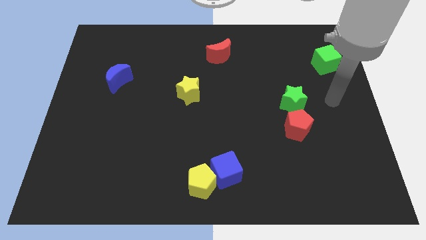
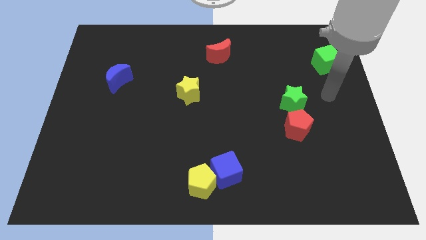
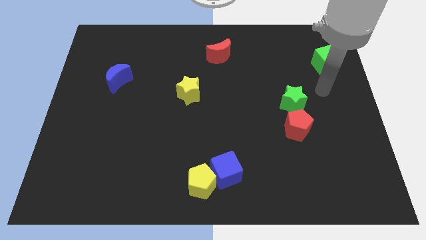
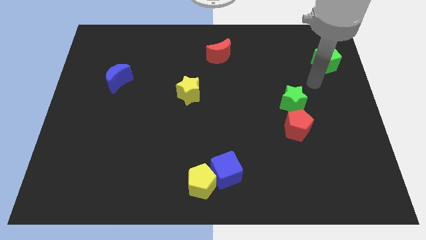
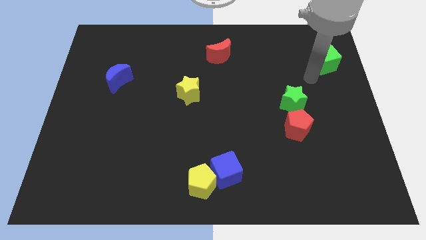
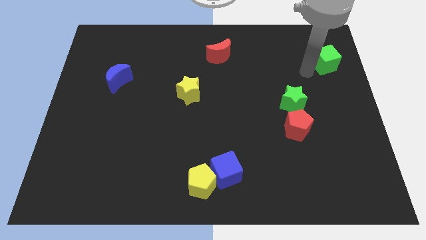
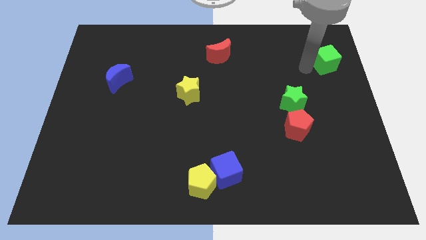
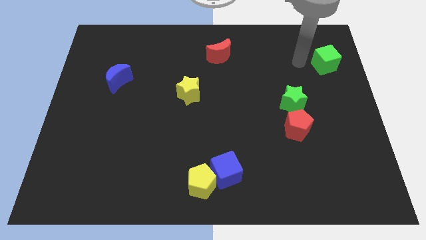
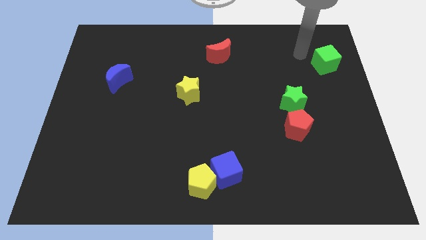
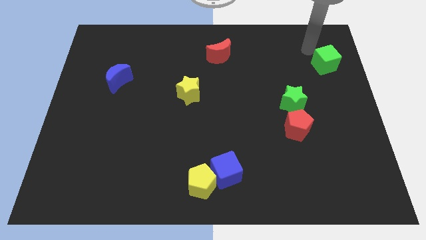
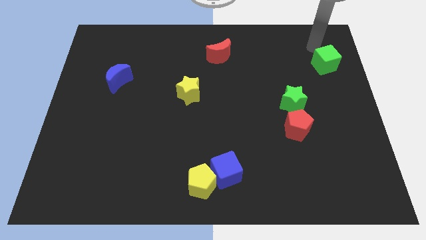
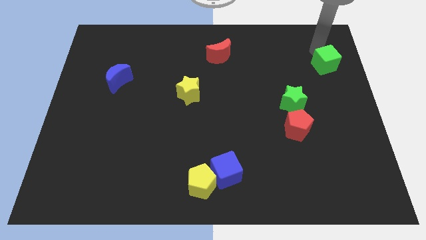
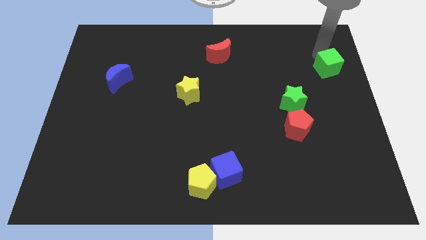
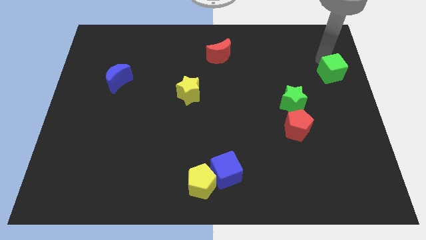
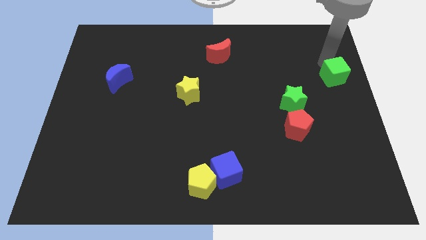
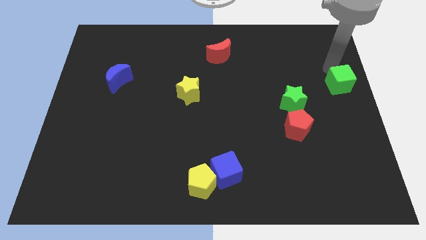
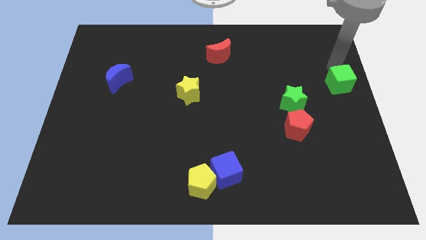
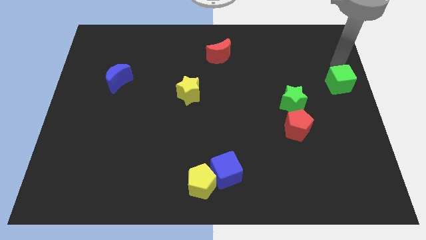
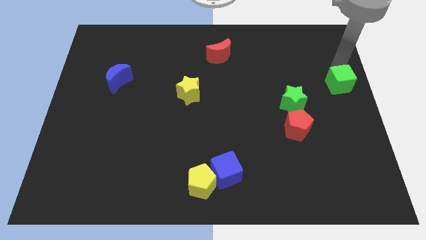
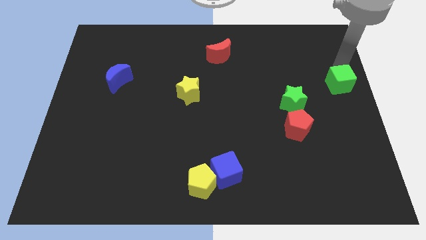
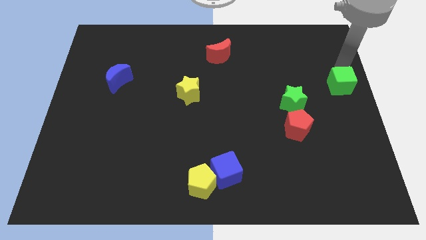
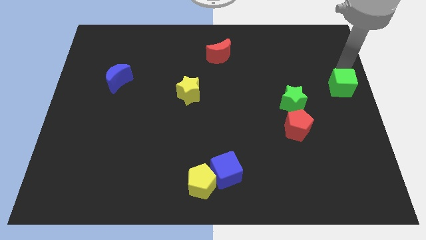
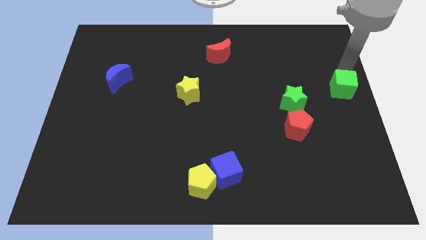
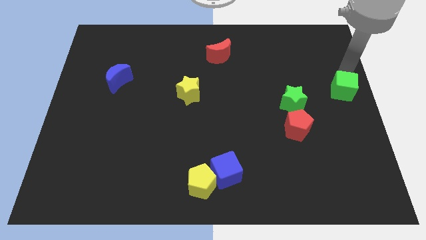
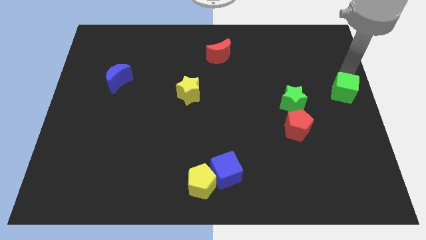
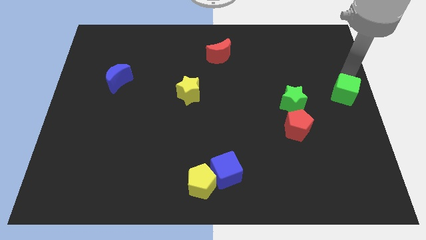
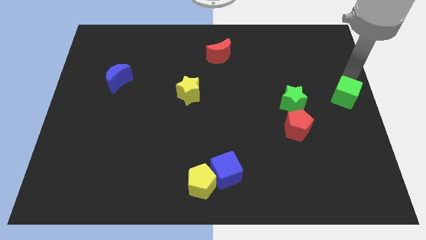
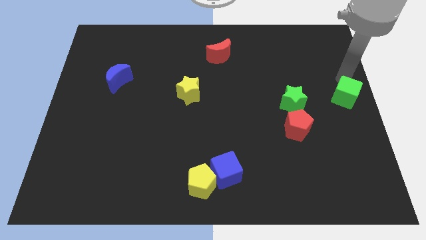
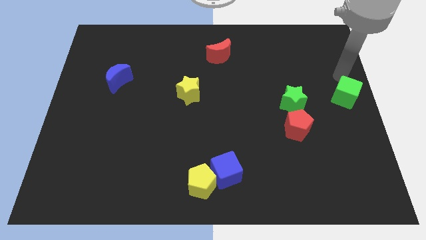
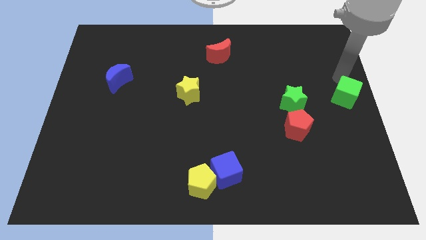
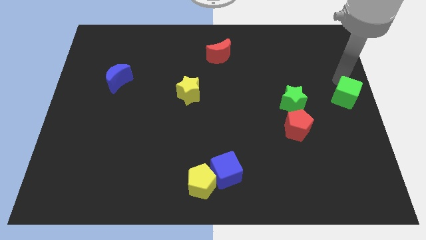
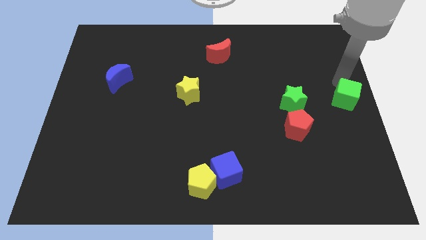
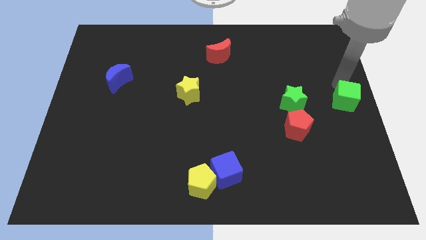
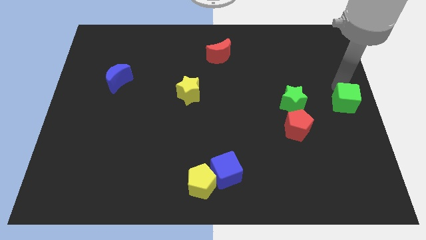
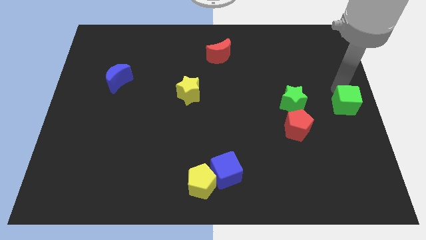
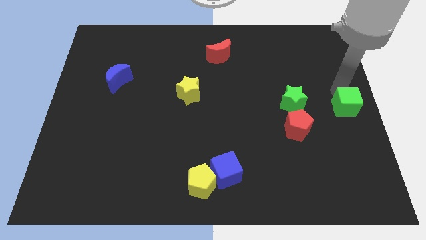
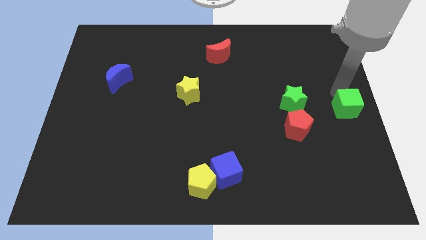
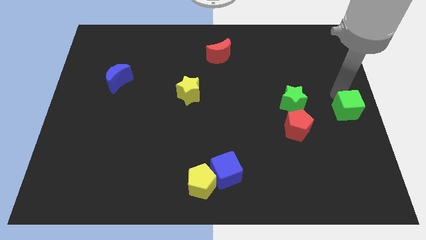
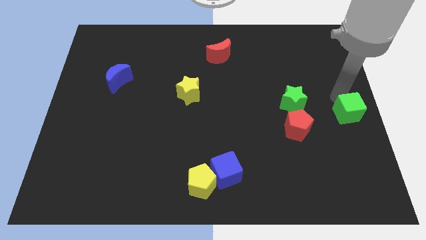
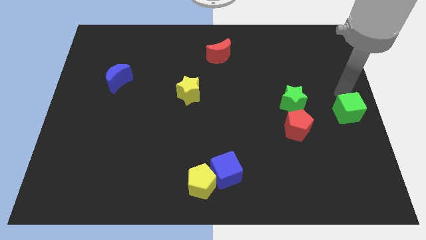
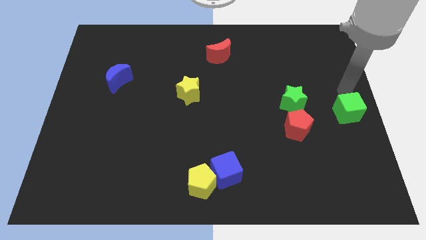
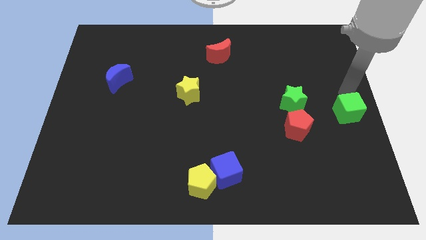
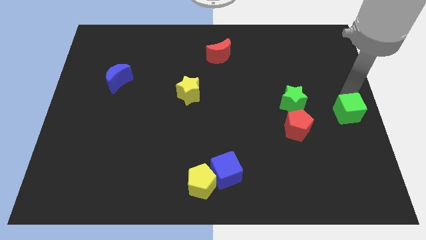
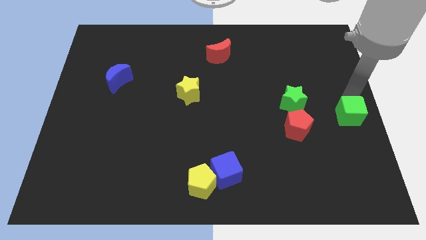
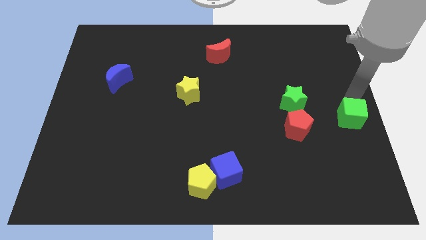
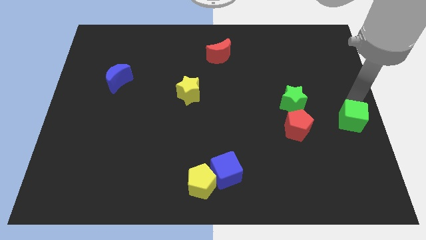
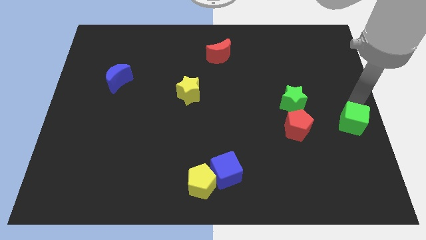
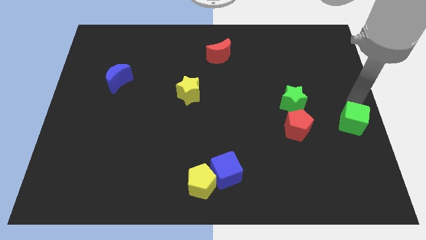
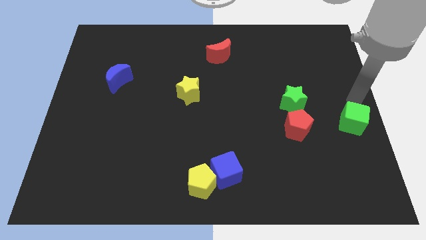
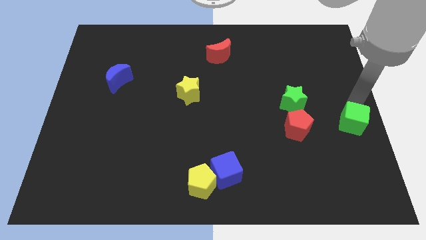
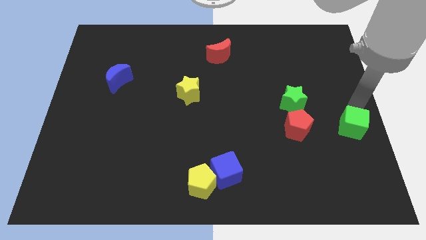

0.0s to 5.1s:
slide the green cube down

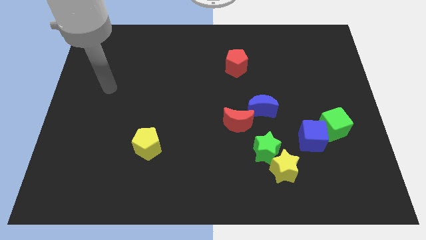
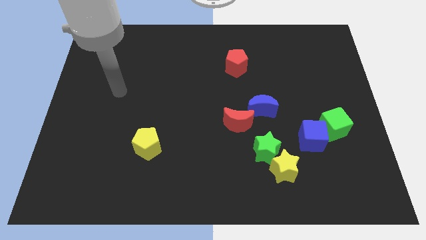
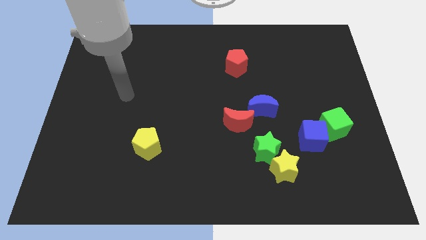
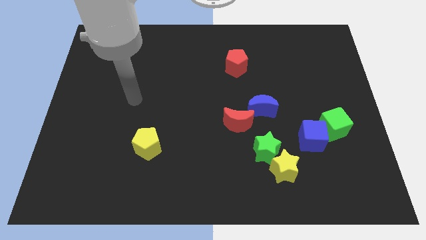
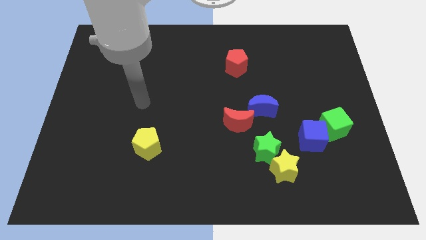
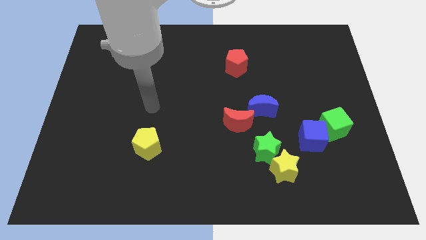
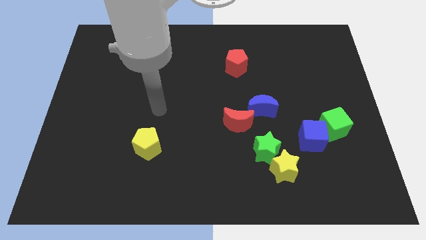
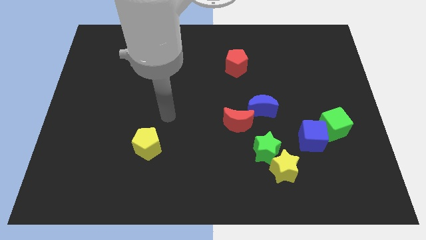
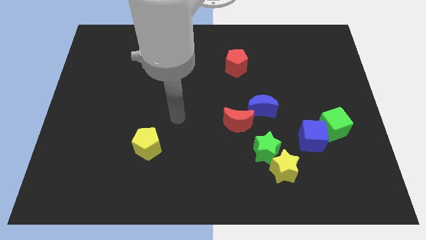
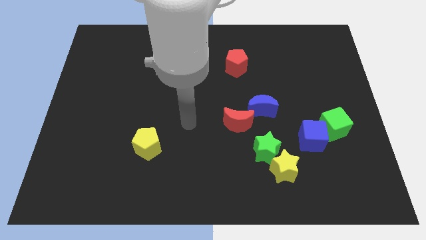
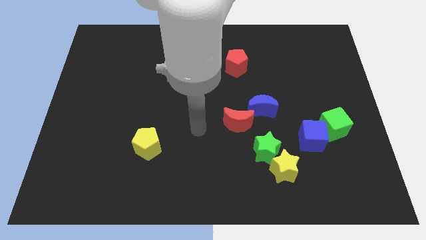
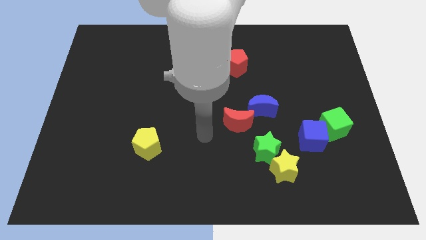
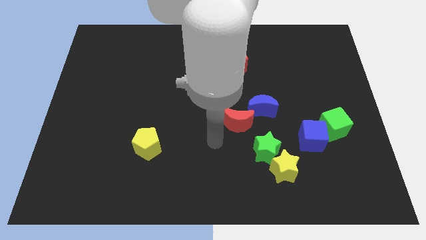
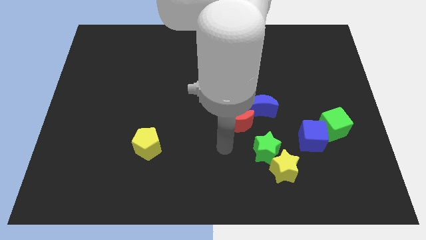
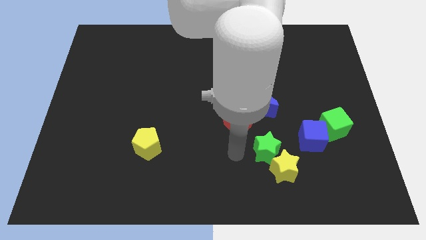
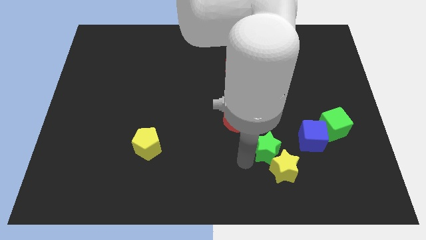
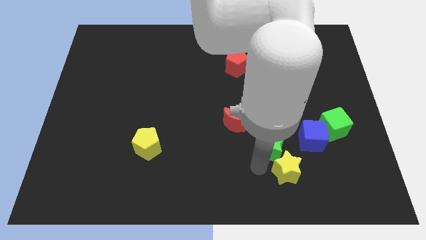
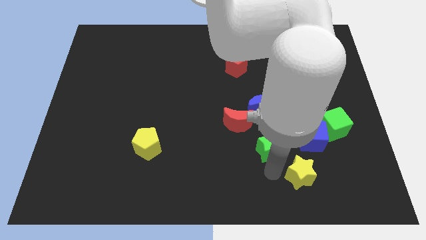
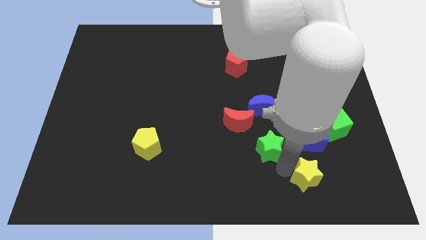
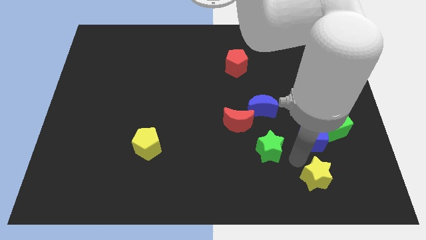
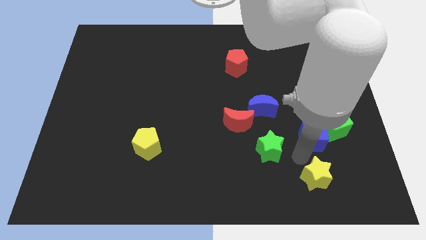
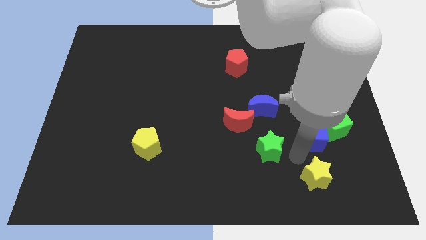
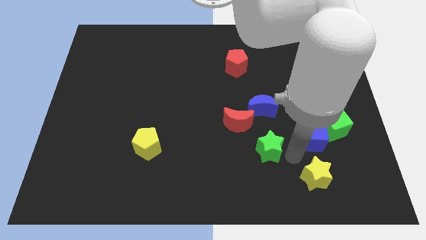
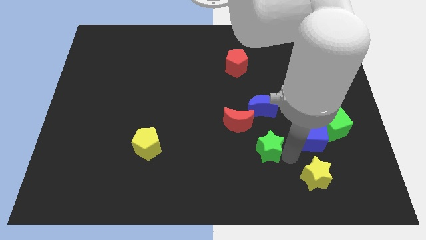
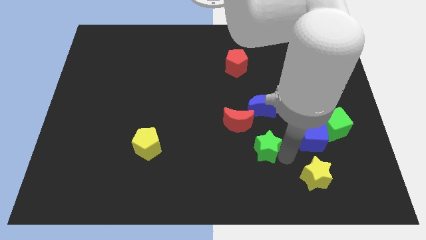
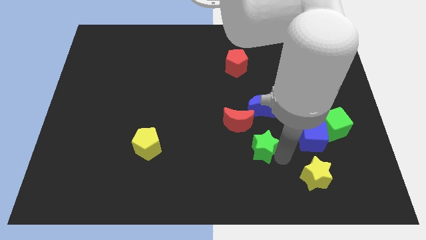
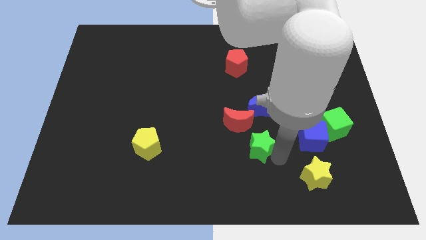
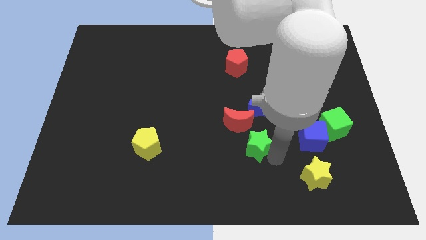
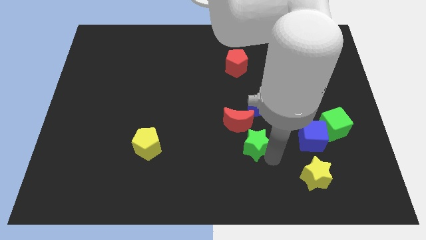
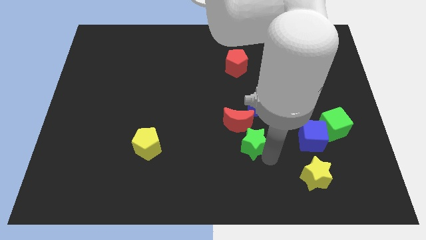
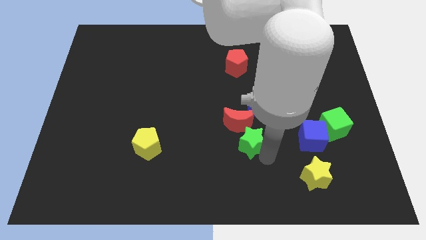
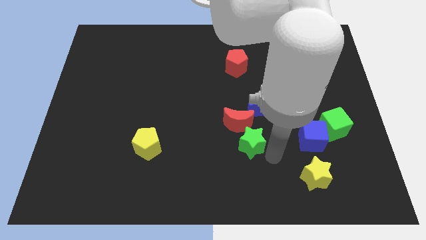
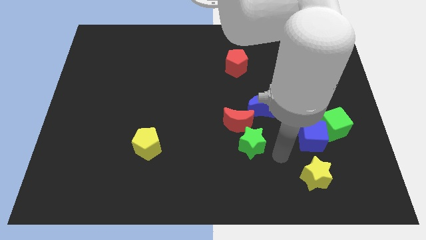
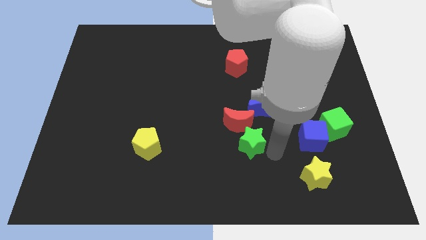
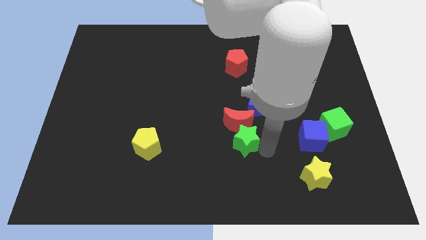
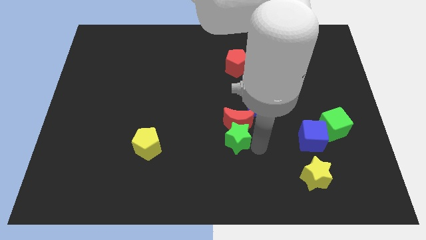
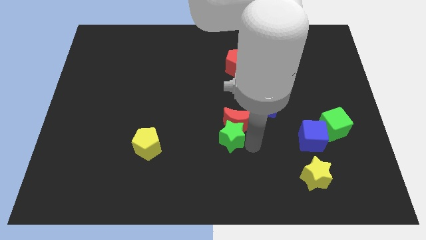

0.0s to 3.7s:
slightly move the green star upwards and left
